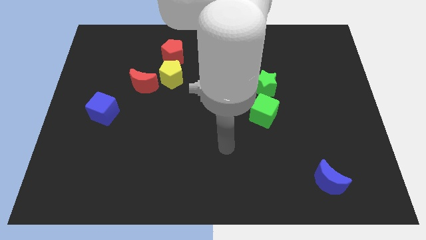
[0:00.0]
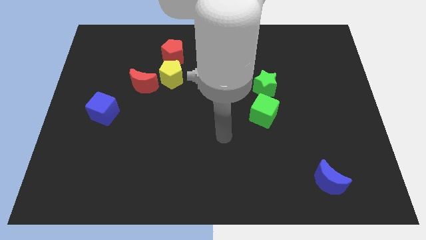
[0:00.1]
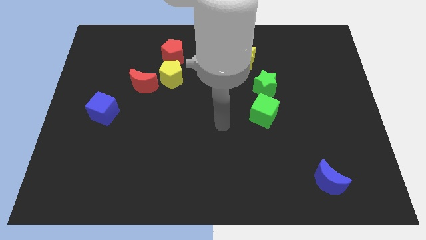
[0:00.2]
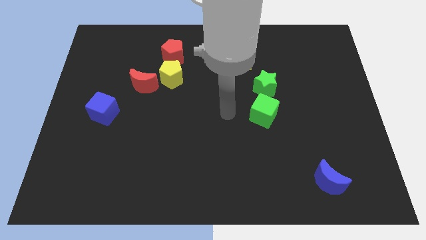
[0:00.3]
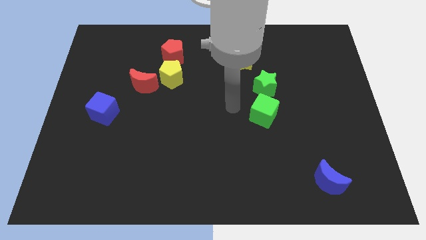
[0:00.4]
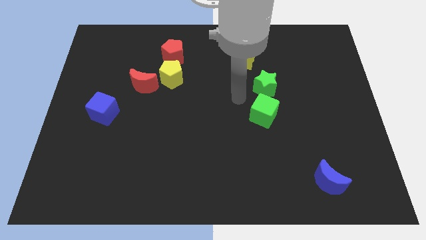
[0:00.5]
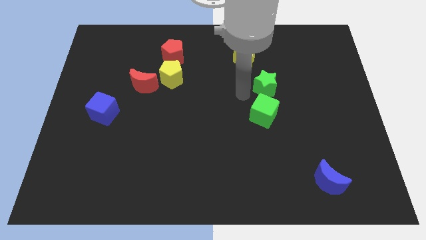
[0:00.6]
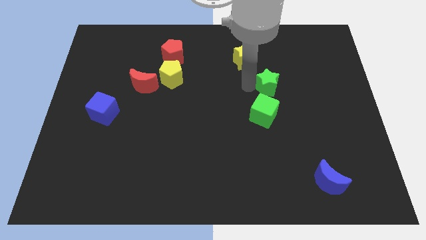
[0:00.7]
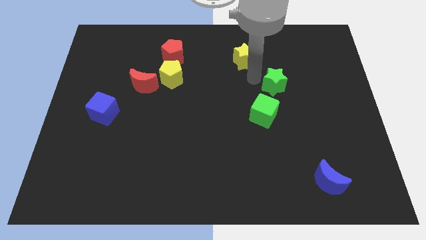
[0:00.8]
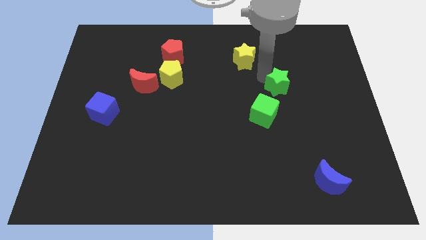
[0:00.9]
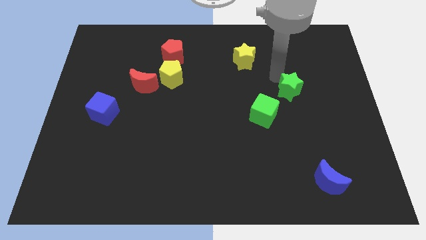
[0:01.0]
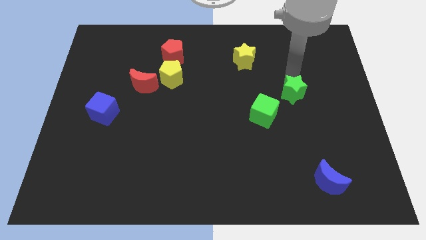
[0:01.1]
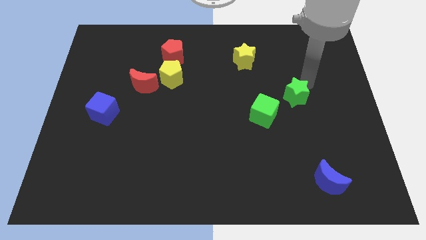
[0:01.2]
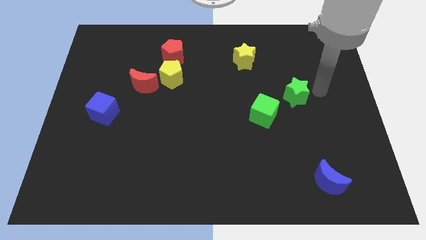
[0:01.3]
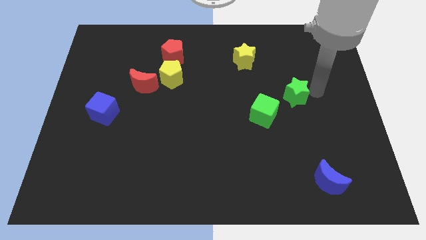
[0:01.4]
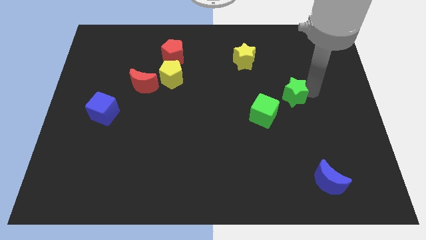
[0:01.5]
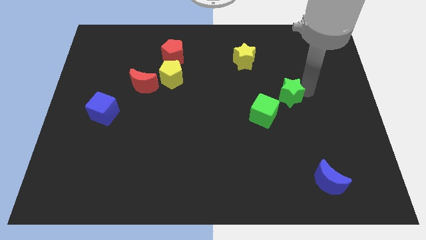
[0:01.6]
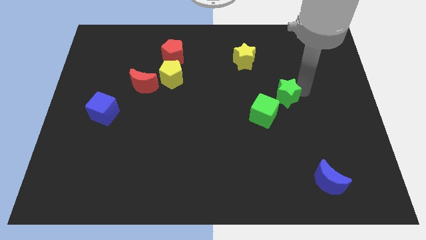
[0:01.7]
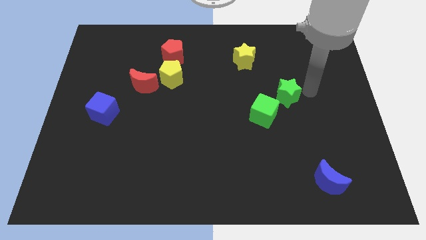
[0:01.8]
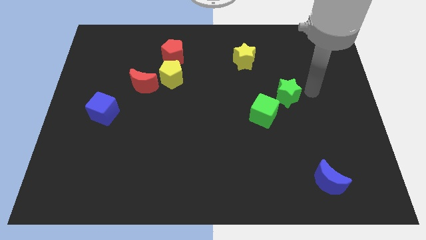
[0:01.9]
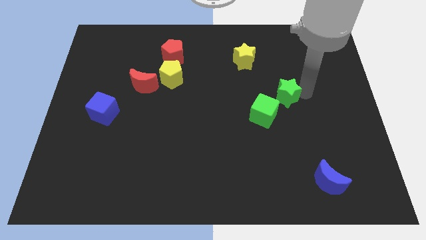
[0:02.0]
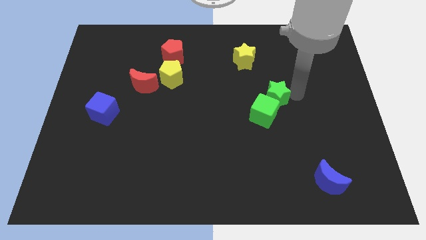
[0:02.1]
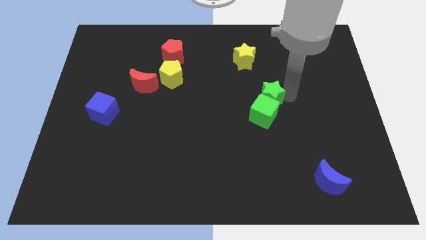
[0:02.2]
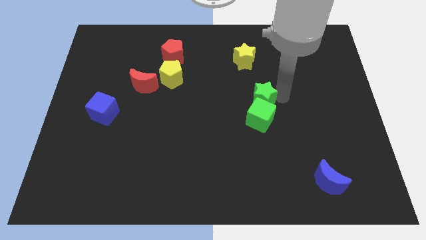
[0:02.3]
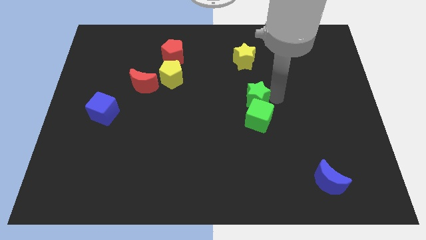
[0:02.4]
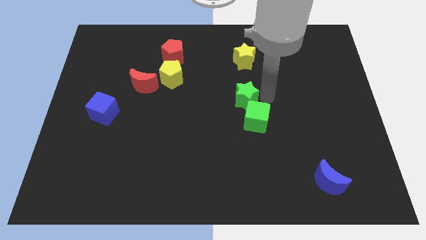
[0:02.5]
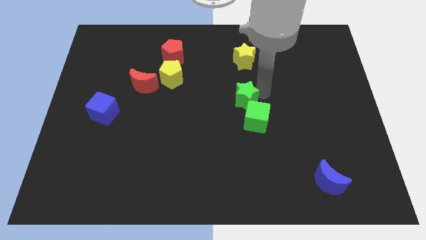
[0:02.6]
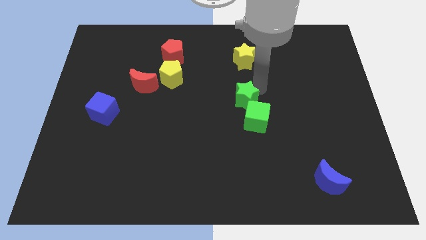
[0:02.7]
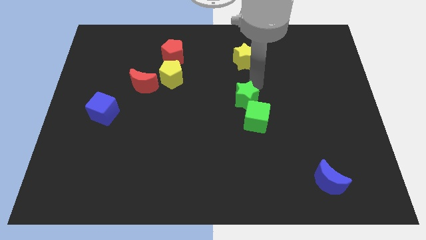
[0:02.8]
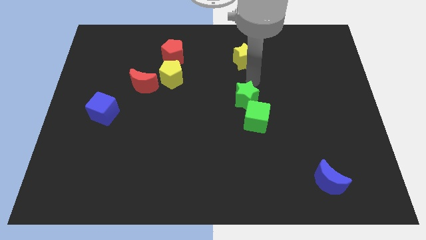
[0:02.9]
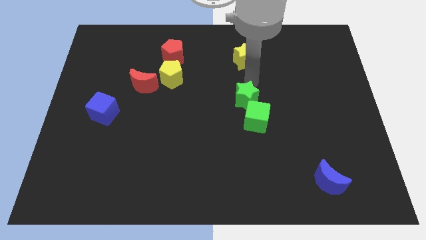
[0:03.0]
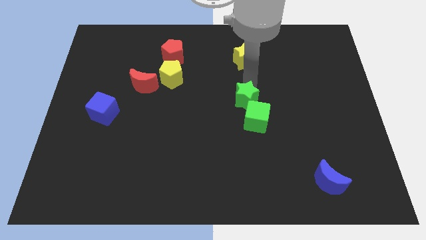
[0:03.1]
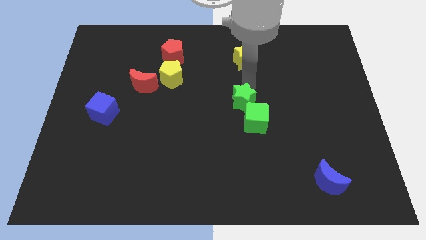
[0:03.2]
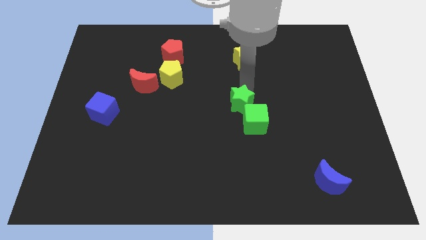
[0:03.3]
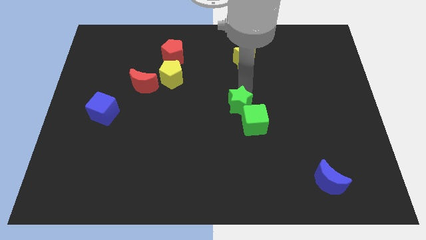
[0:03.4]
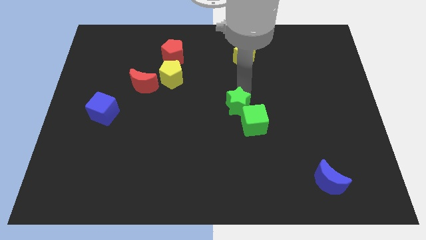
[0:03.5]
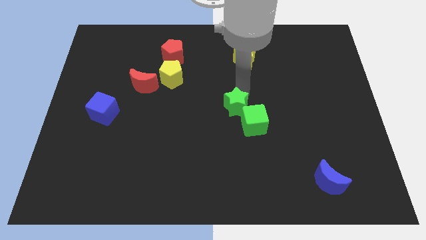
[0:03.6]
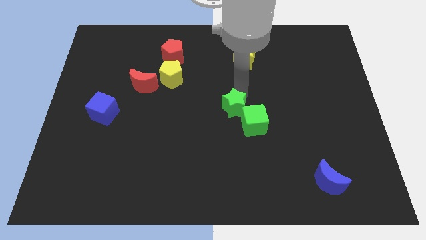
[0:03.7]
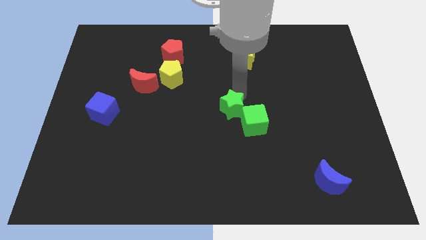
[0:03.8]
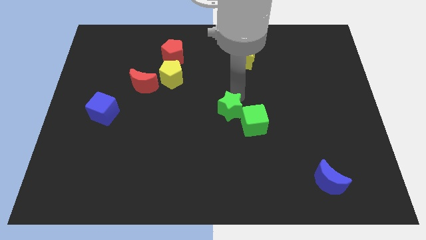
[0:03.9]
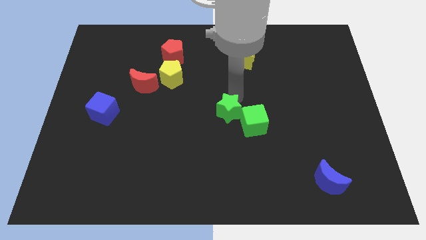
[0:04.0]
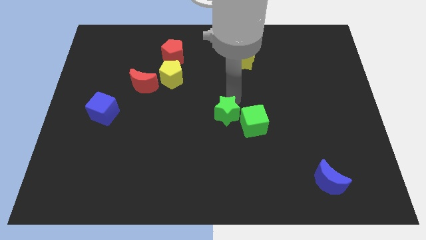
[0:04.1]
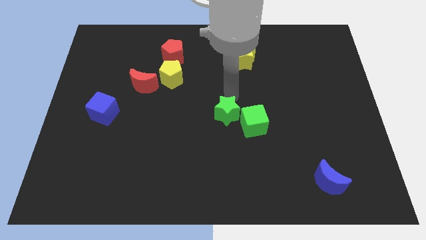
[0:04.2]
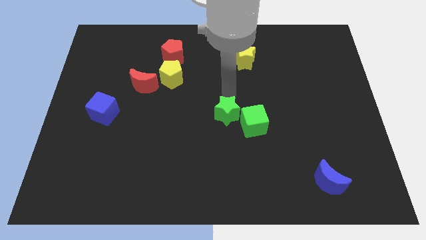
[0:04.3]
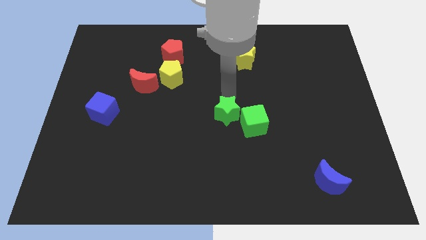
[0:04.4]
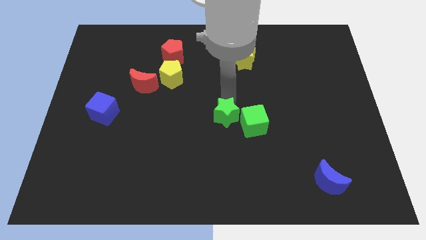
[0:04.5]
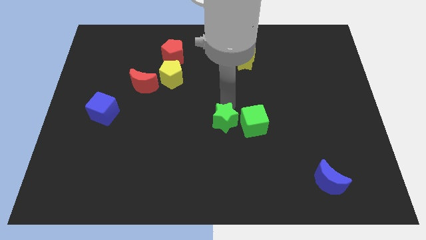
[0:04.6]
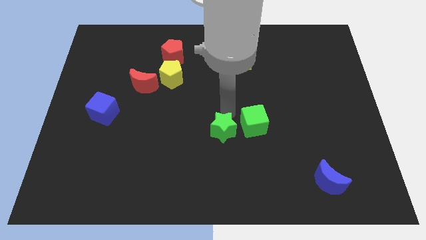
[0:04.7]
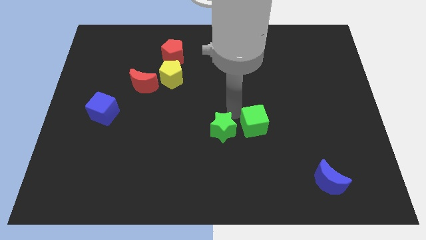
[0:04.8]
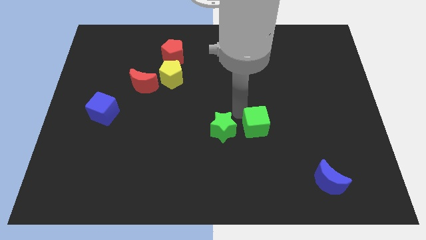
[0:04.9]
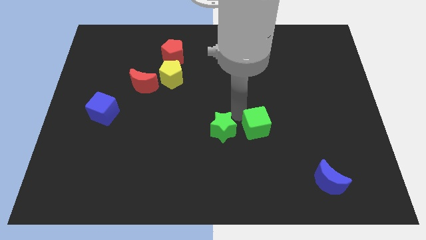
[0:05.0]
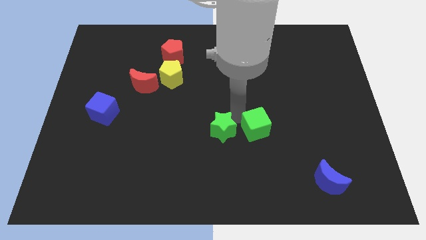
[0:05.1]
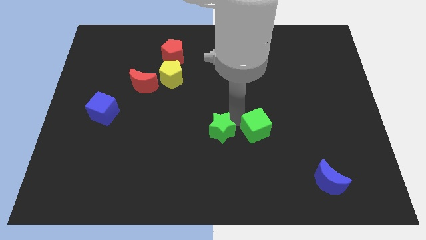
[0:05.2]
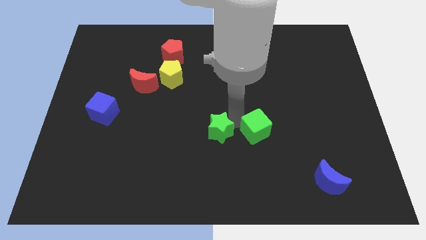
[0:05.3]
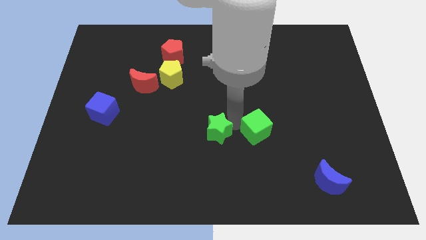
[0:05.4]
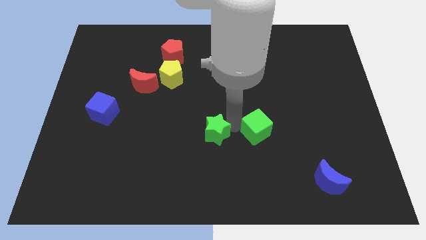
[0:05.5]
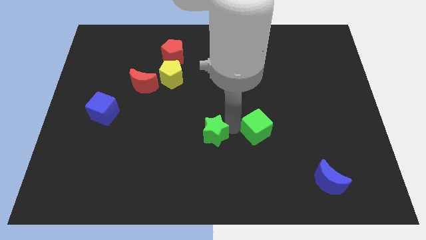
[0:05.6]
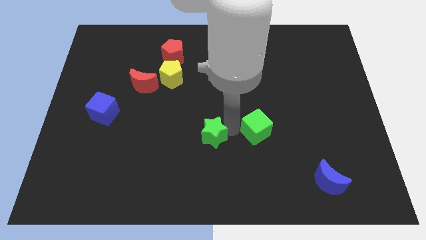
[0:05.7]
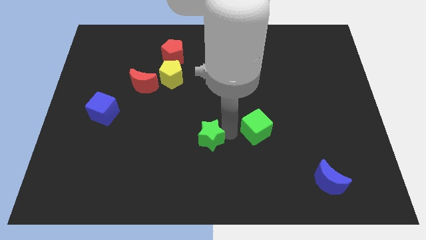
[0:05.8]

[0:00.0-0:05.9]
slide the green star down and left

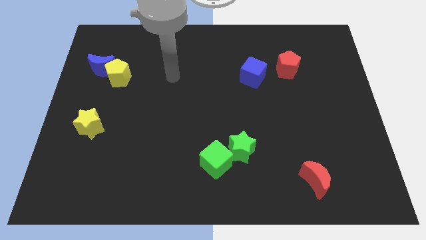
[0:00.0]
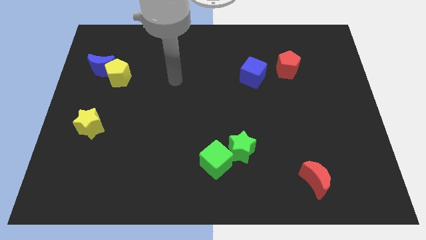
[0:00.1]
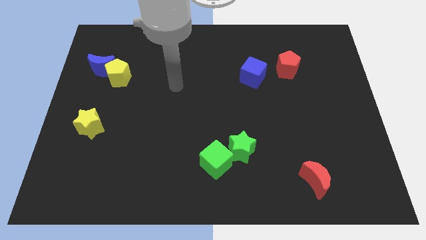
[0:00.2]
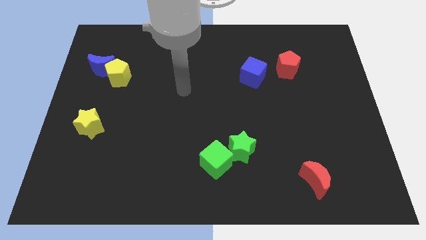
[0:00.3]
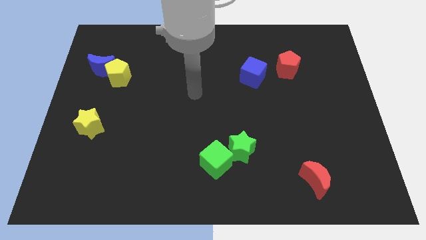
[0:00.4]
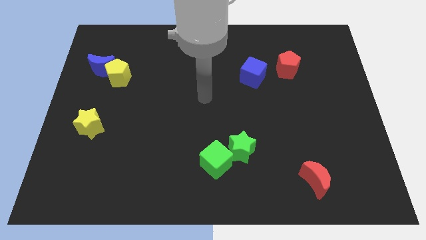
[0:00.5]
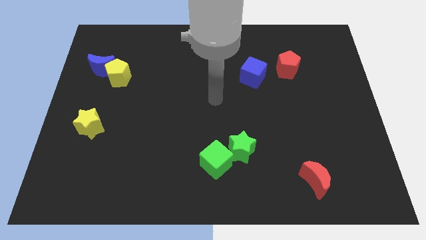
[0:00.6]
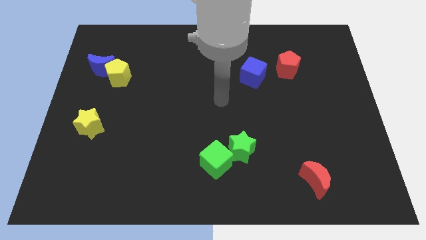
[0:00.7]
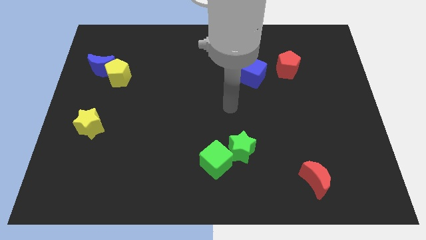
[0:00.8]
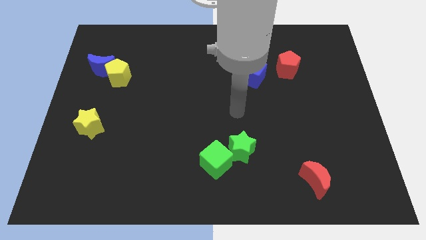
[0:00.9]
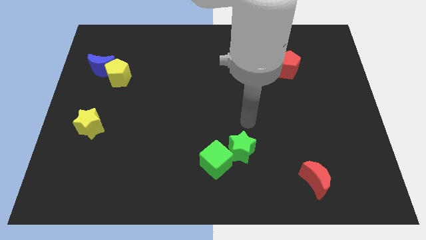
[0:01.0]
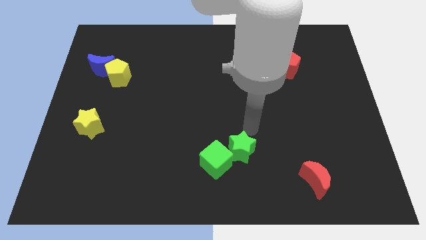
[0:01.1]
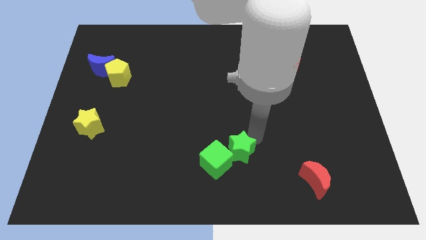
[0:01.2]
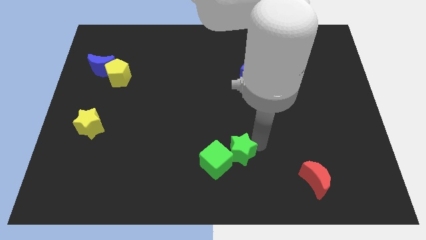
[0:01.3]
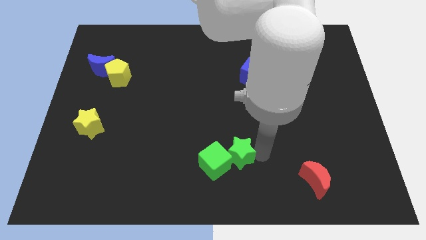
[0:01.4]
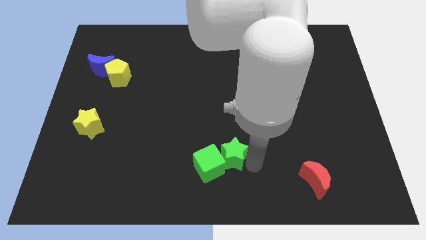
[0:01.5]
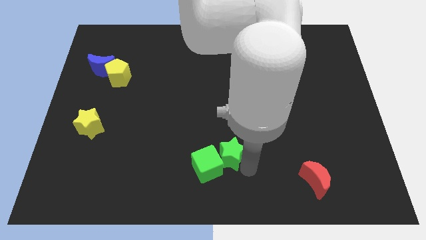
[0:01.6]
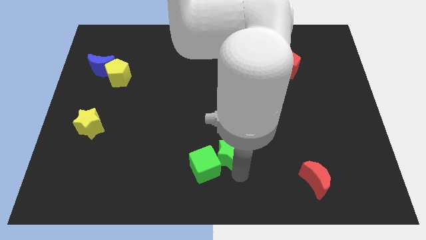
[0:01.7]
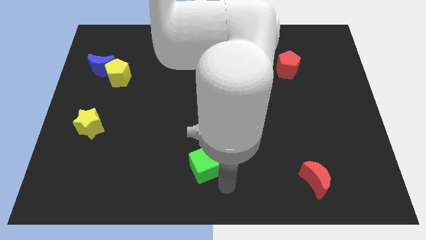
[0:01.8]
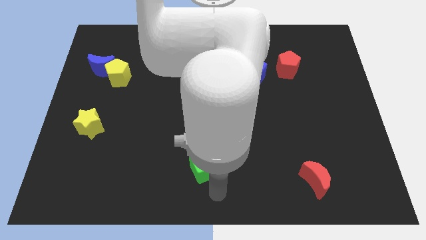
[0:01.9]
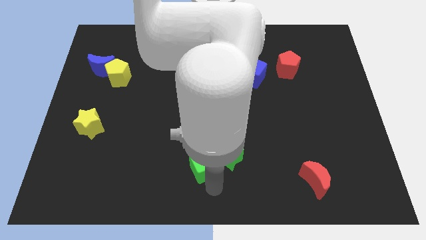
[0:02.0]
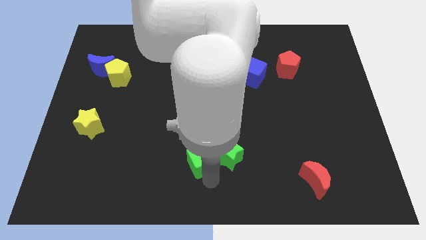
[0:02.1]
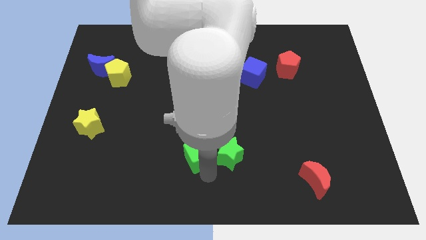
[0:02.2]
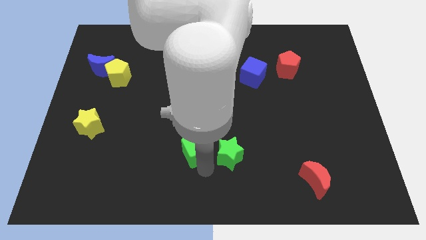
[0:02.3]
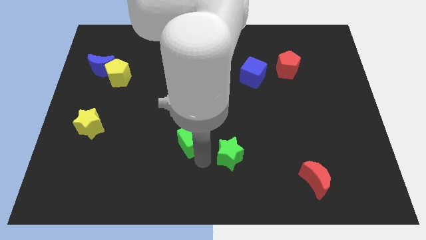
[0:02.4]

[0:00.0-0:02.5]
push the green cube a bit upwards and to the left diagonally
